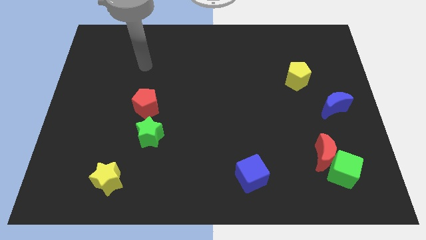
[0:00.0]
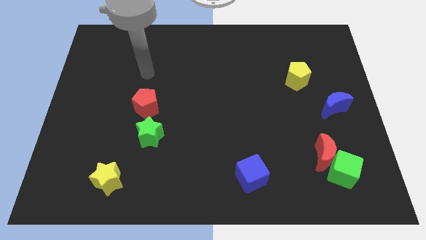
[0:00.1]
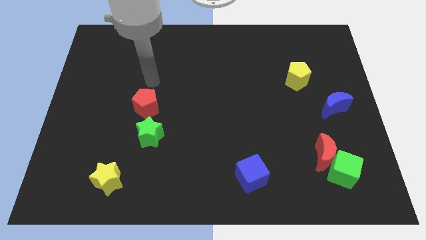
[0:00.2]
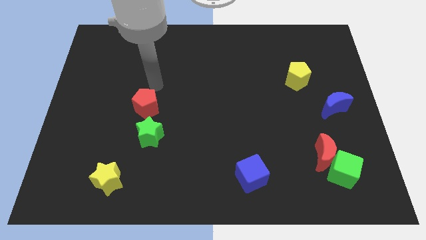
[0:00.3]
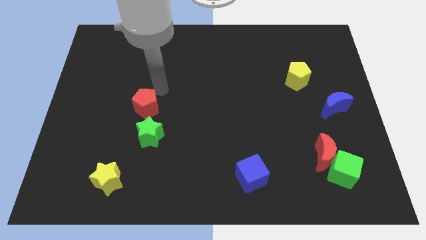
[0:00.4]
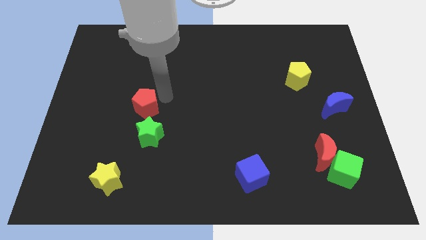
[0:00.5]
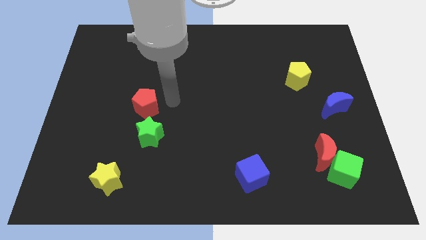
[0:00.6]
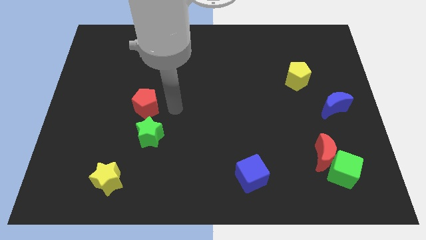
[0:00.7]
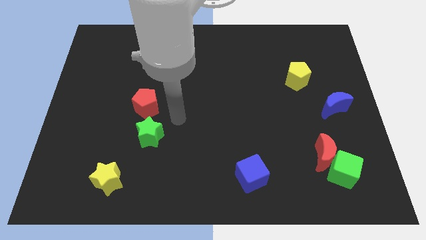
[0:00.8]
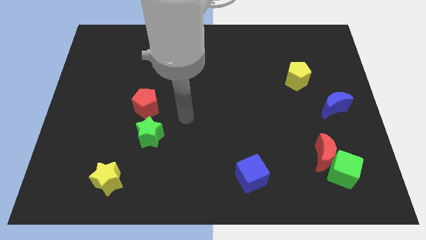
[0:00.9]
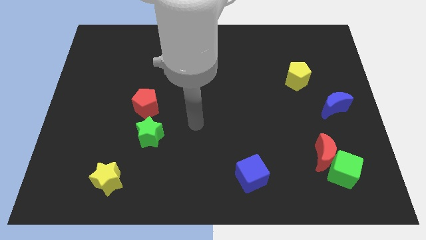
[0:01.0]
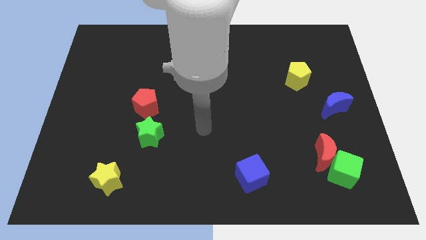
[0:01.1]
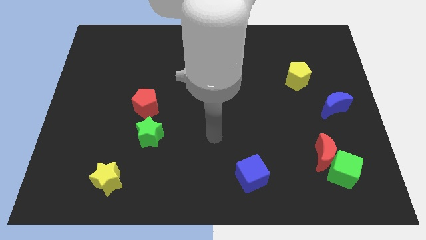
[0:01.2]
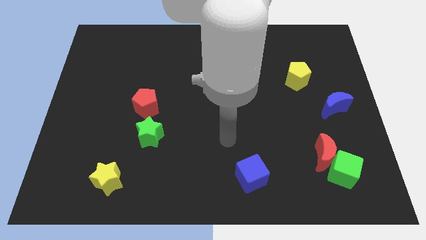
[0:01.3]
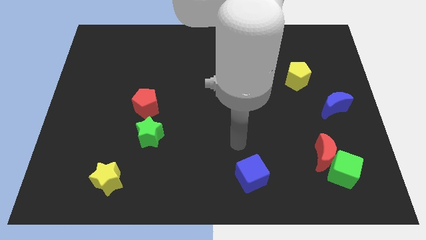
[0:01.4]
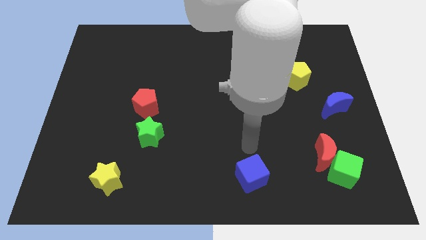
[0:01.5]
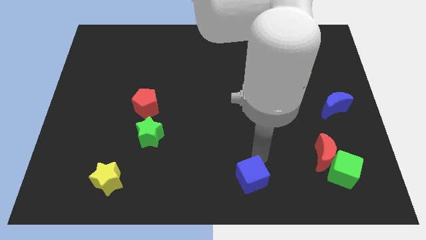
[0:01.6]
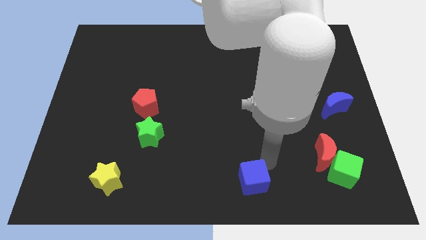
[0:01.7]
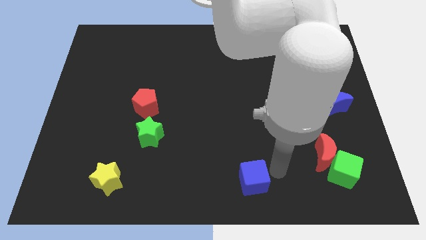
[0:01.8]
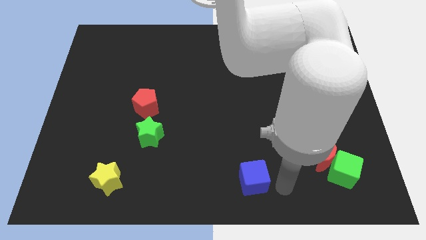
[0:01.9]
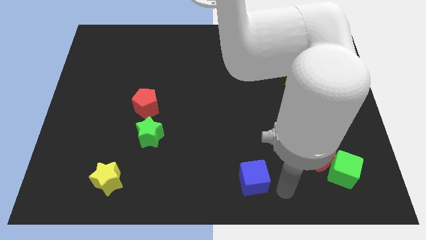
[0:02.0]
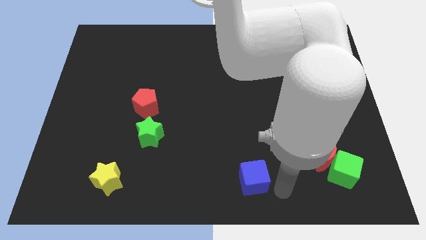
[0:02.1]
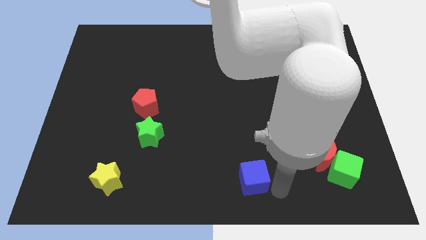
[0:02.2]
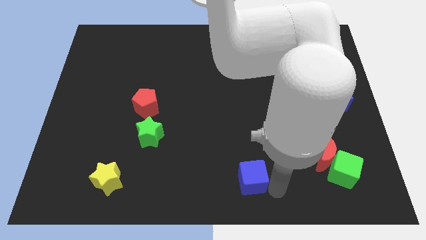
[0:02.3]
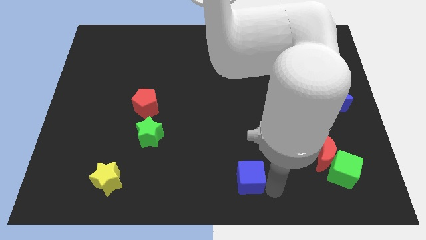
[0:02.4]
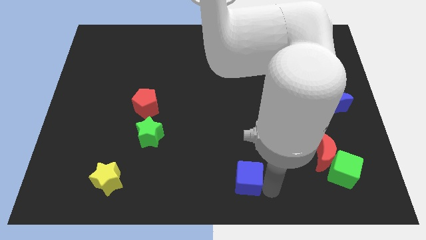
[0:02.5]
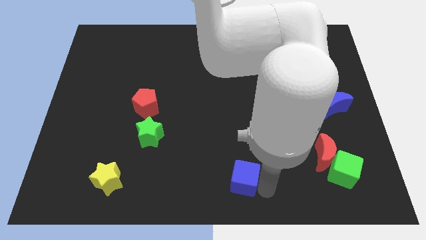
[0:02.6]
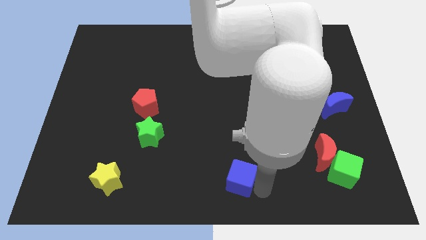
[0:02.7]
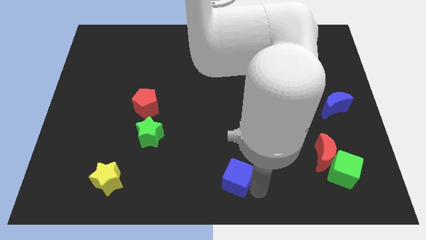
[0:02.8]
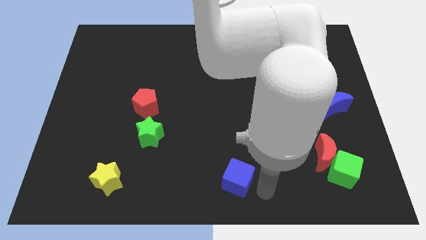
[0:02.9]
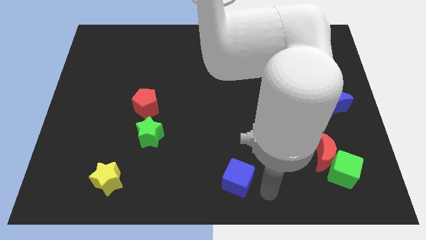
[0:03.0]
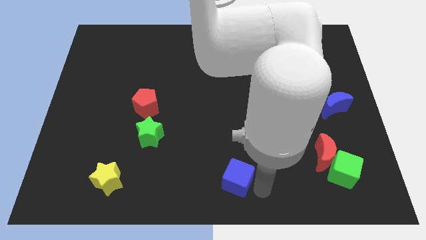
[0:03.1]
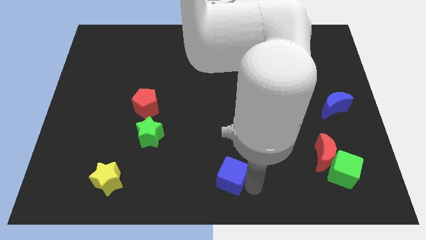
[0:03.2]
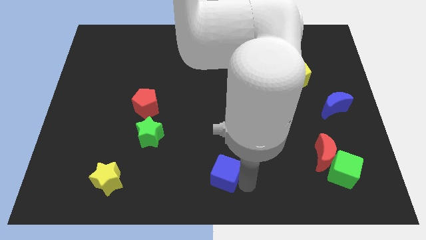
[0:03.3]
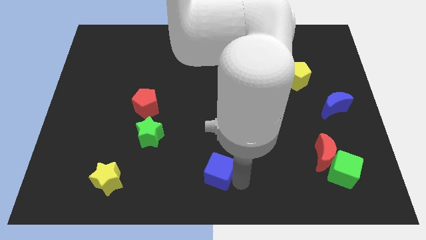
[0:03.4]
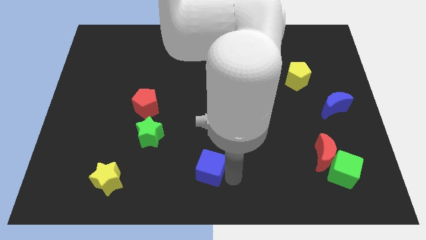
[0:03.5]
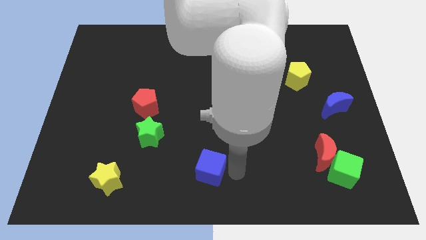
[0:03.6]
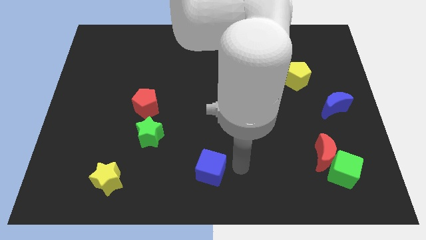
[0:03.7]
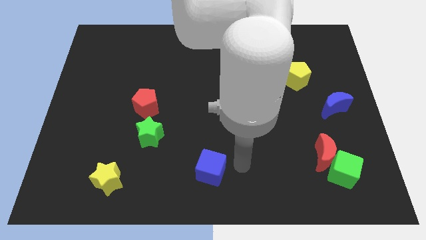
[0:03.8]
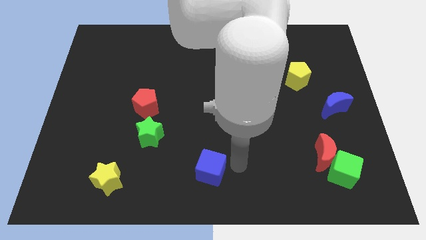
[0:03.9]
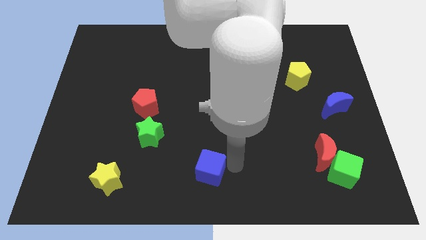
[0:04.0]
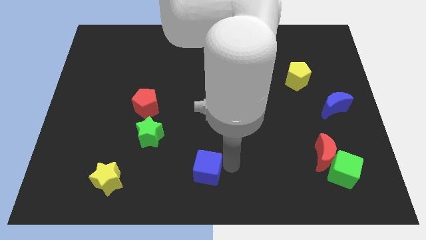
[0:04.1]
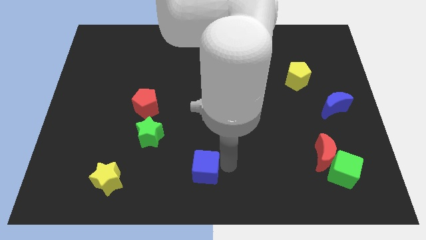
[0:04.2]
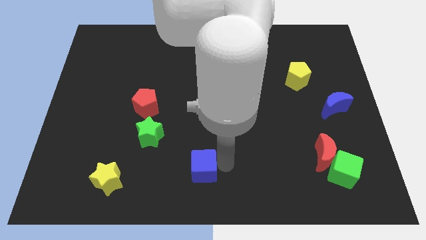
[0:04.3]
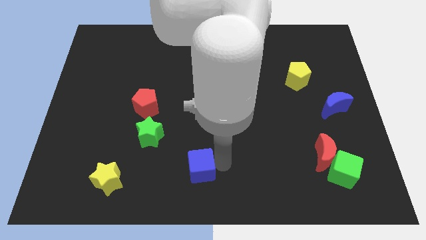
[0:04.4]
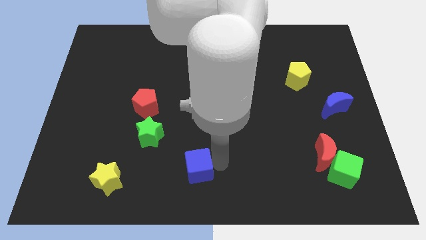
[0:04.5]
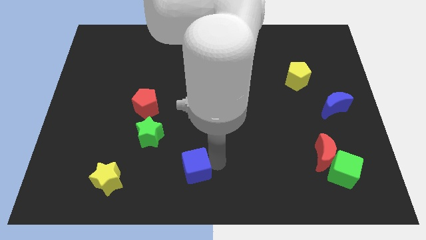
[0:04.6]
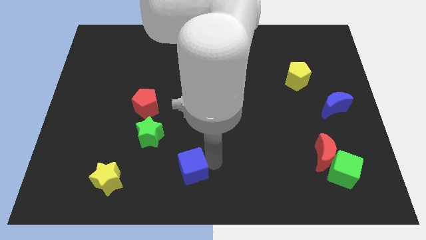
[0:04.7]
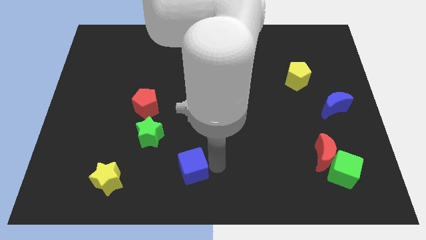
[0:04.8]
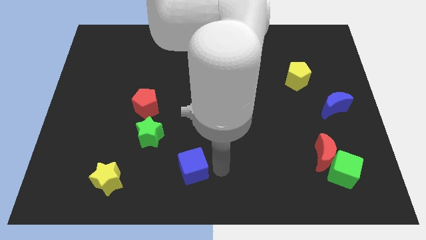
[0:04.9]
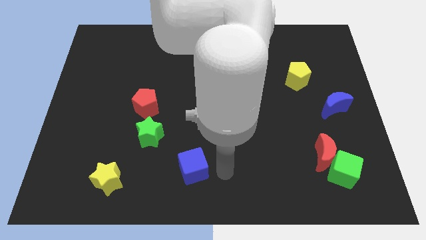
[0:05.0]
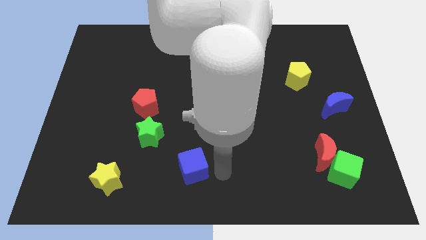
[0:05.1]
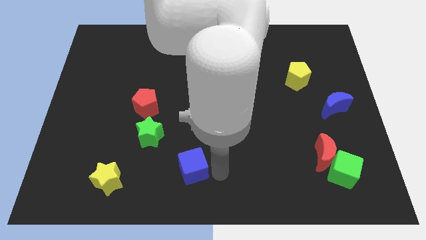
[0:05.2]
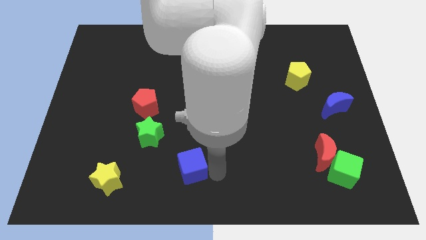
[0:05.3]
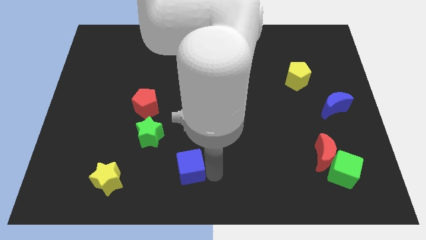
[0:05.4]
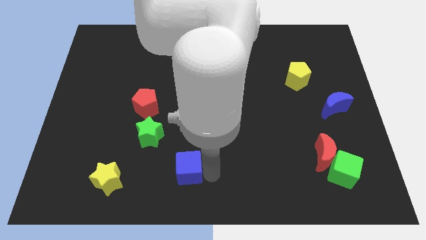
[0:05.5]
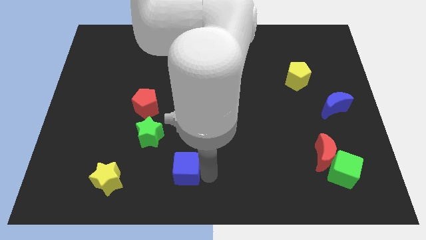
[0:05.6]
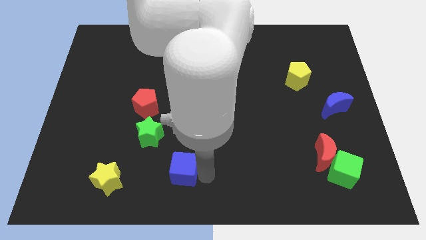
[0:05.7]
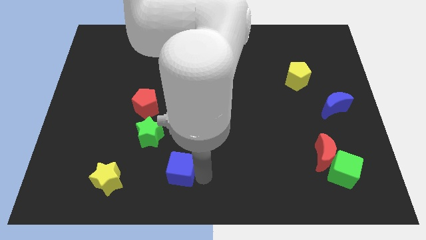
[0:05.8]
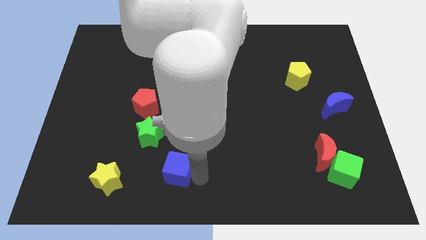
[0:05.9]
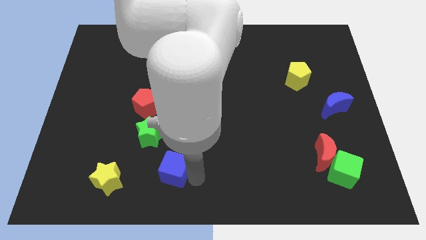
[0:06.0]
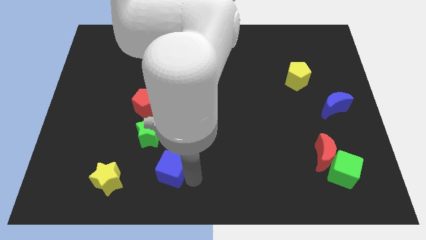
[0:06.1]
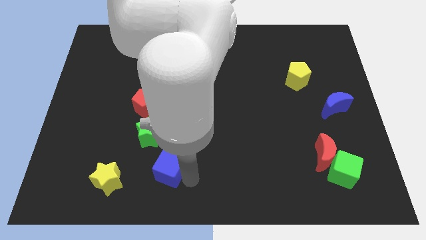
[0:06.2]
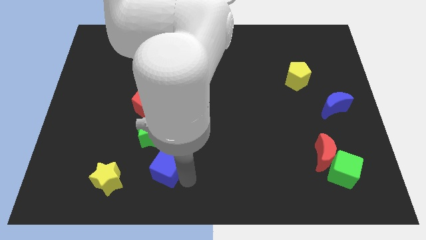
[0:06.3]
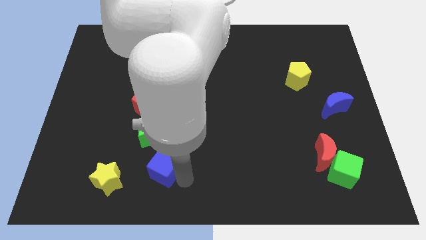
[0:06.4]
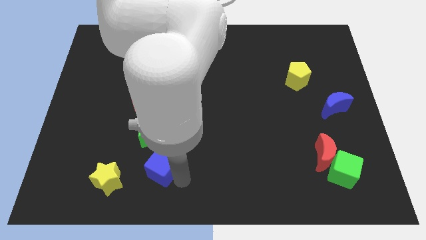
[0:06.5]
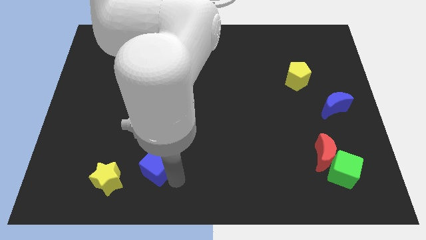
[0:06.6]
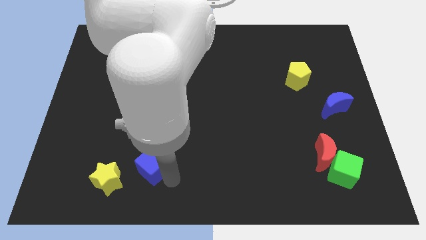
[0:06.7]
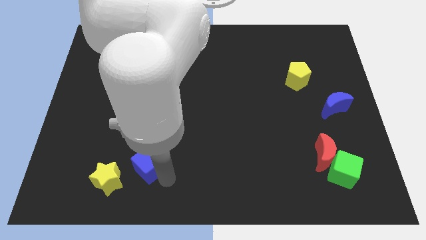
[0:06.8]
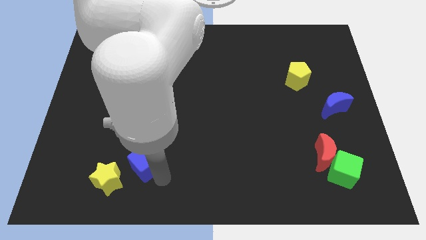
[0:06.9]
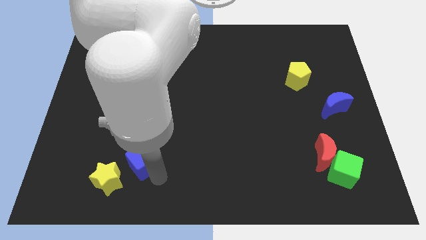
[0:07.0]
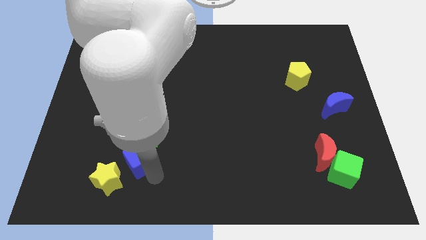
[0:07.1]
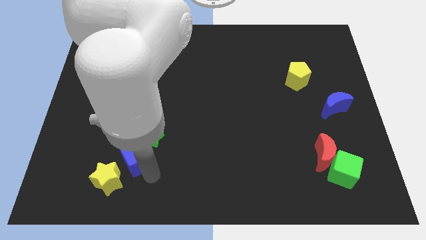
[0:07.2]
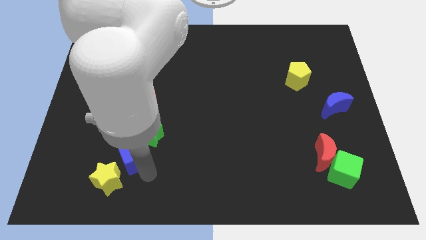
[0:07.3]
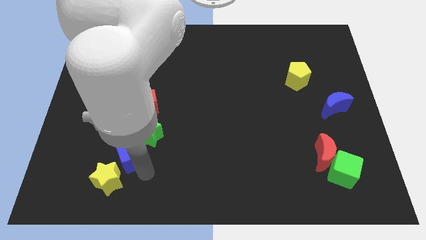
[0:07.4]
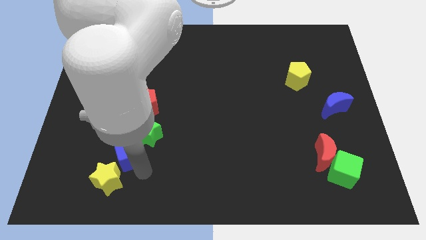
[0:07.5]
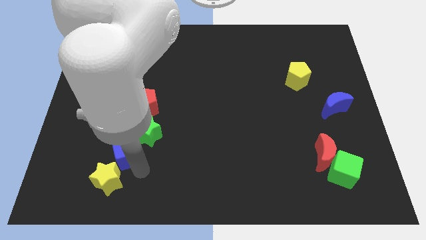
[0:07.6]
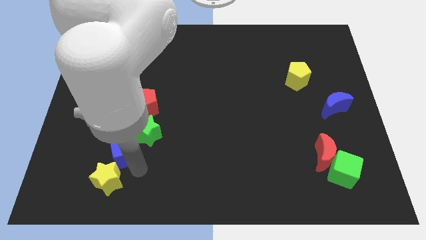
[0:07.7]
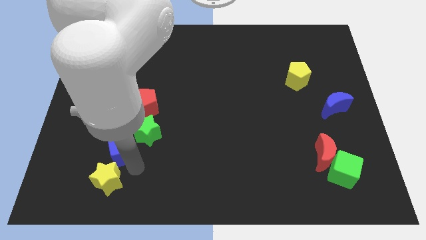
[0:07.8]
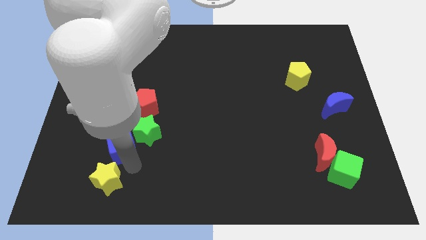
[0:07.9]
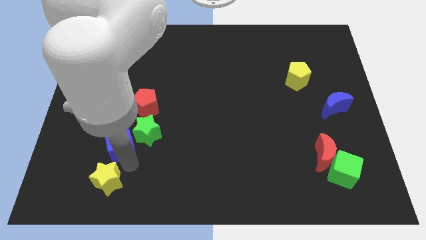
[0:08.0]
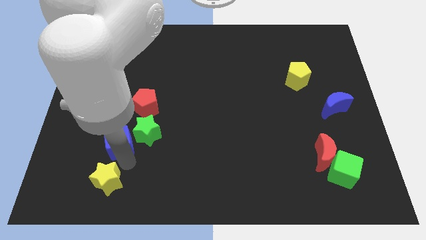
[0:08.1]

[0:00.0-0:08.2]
push the blue cube diagonally down and to the left of the red pentagon
